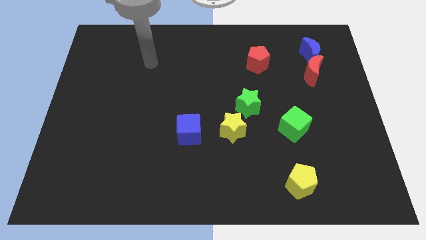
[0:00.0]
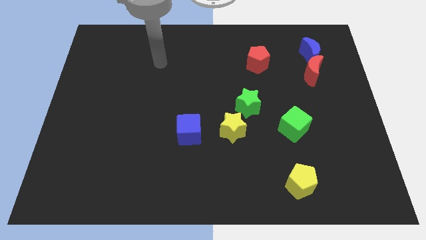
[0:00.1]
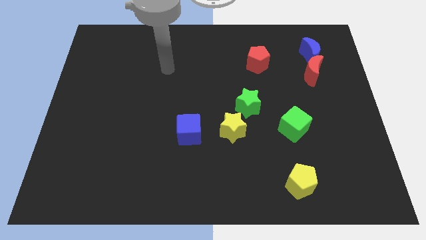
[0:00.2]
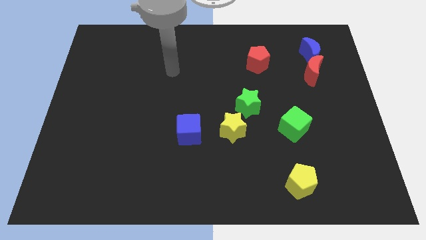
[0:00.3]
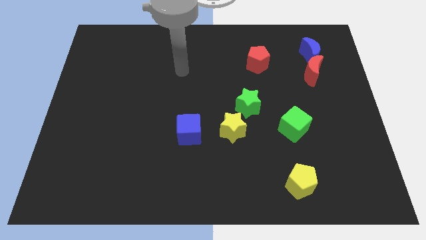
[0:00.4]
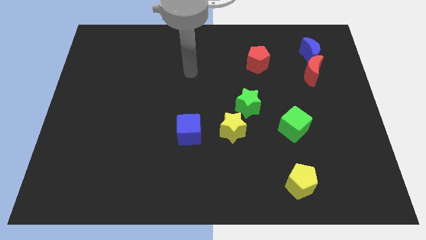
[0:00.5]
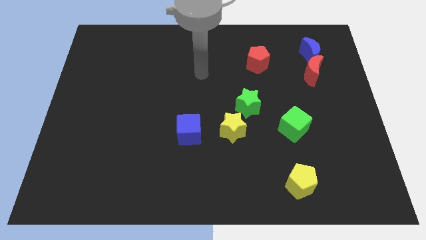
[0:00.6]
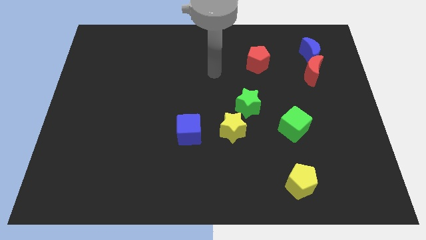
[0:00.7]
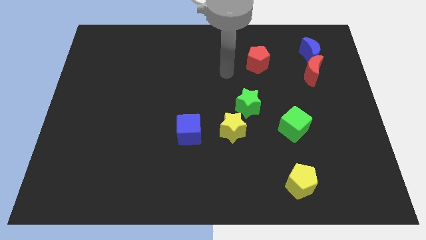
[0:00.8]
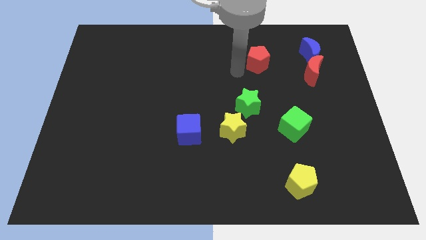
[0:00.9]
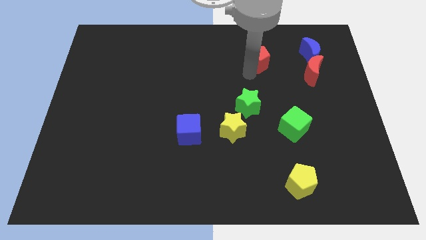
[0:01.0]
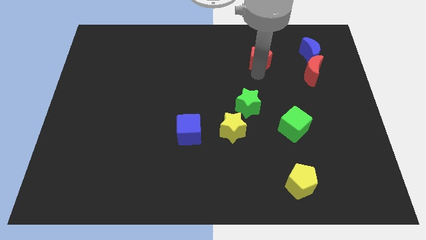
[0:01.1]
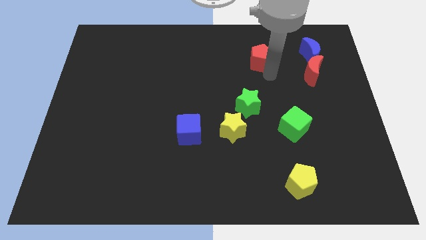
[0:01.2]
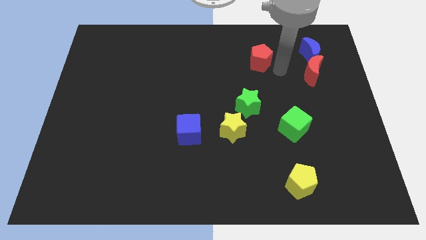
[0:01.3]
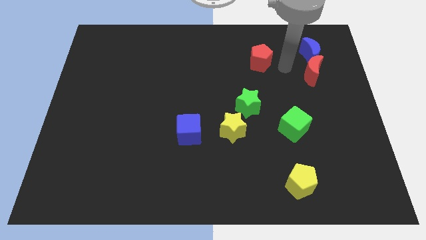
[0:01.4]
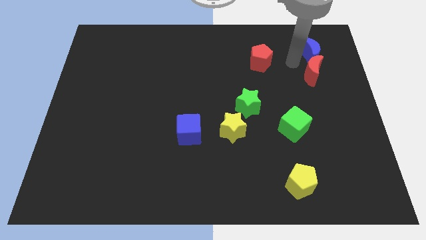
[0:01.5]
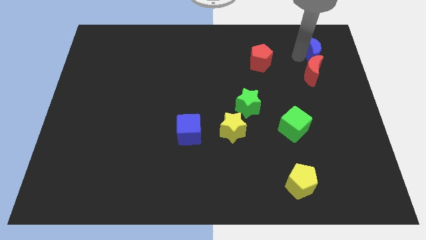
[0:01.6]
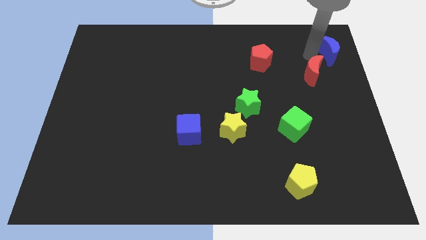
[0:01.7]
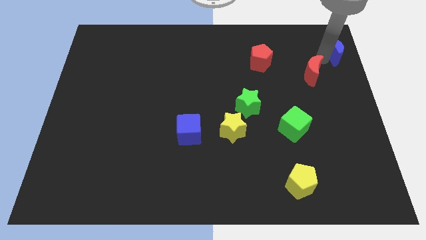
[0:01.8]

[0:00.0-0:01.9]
move the red moon away from the blue moon

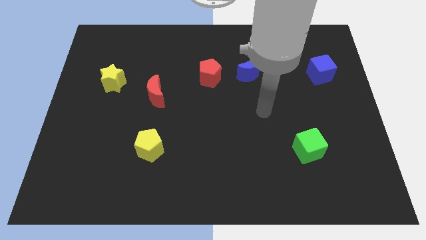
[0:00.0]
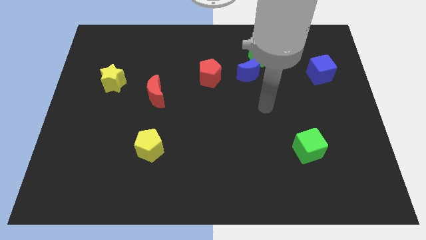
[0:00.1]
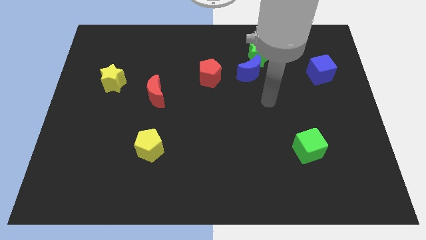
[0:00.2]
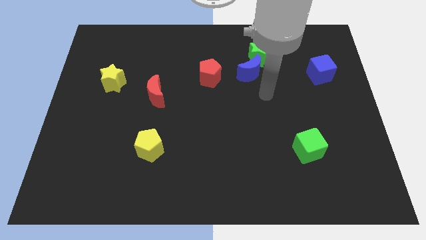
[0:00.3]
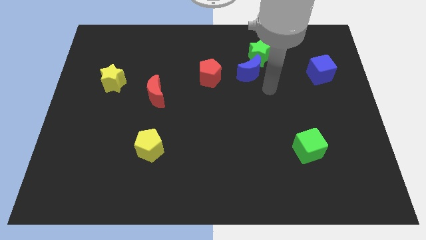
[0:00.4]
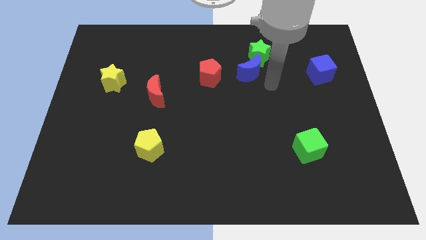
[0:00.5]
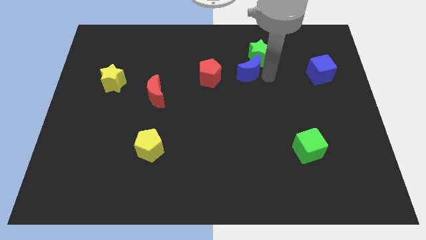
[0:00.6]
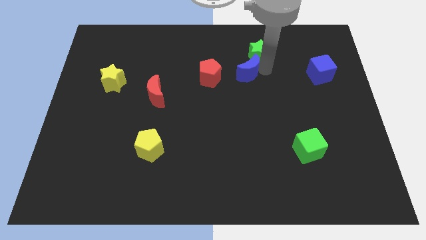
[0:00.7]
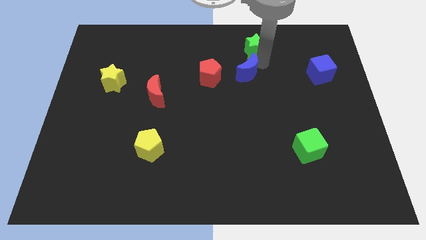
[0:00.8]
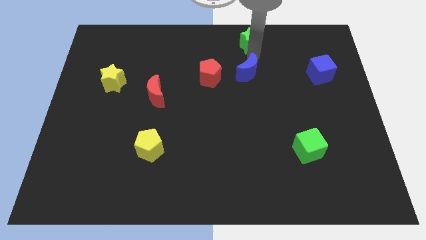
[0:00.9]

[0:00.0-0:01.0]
separate the blue moon from the green star

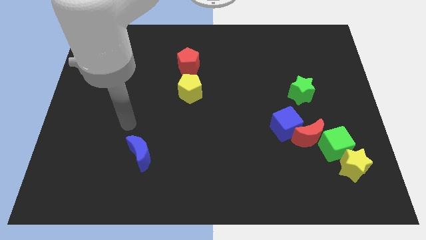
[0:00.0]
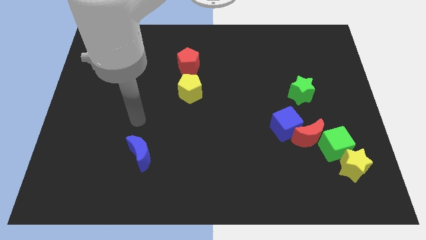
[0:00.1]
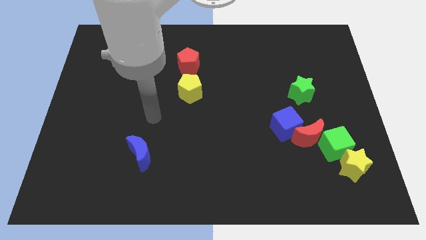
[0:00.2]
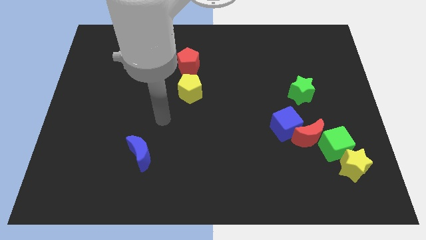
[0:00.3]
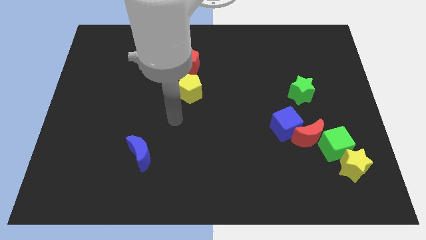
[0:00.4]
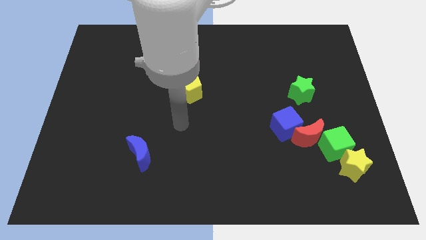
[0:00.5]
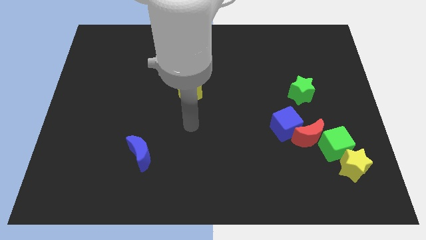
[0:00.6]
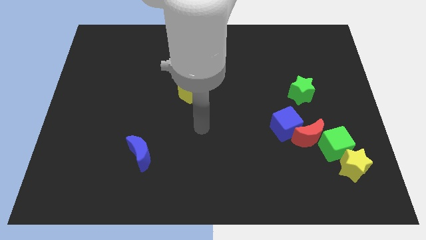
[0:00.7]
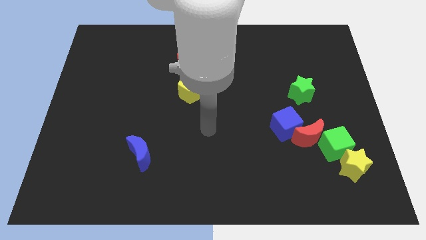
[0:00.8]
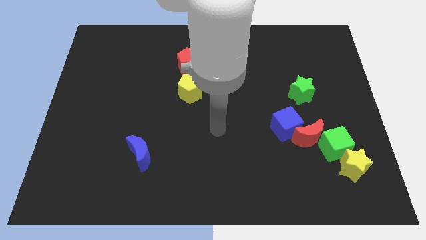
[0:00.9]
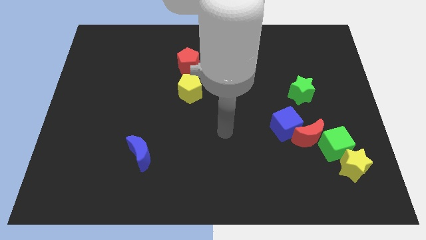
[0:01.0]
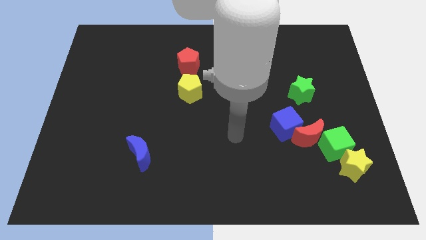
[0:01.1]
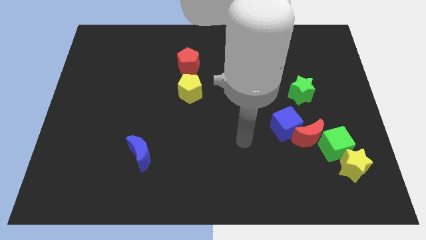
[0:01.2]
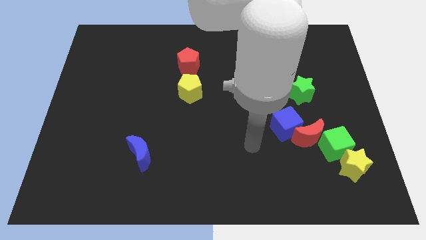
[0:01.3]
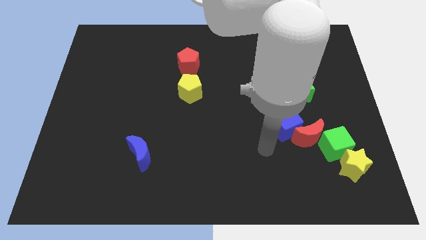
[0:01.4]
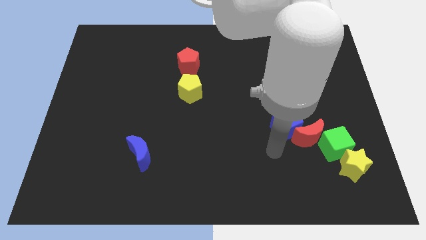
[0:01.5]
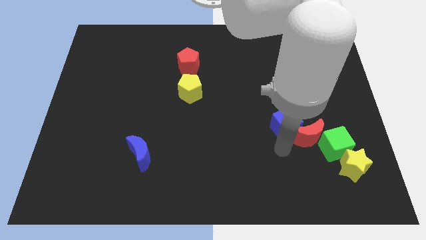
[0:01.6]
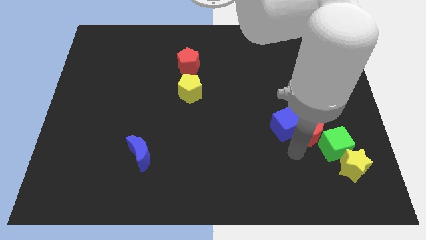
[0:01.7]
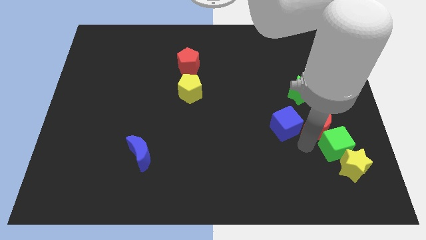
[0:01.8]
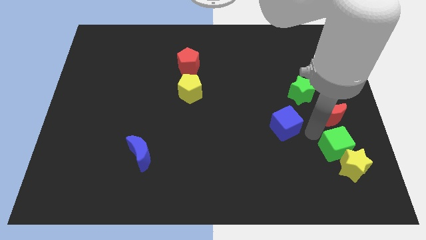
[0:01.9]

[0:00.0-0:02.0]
pull the blue cube apart from the red moon

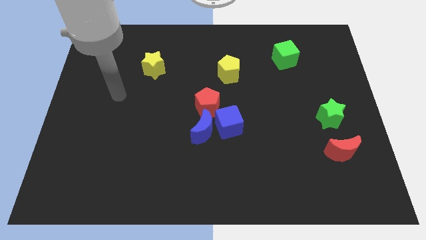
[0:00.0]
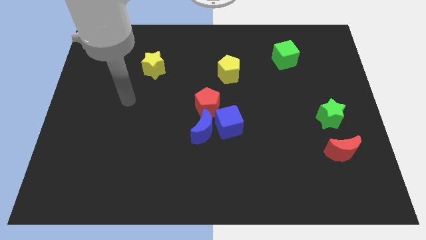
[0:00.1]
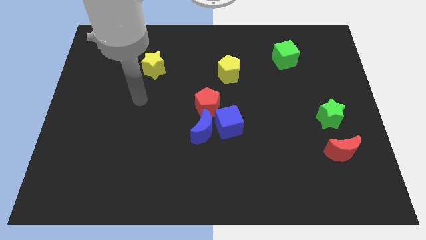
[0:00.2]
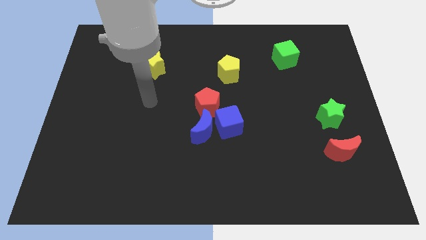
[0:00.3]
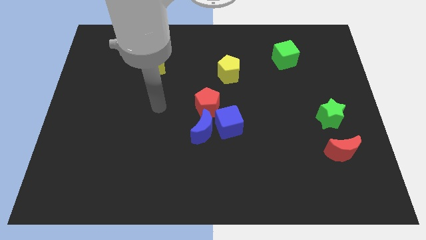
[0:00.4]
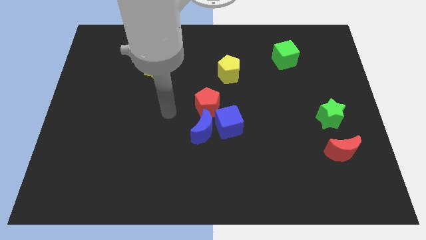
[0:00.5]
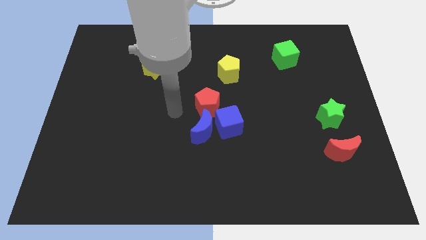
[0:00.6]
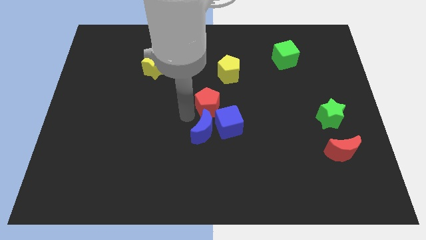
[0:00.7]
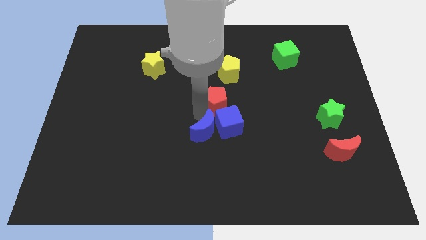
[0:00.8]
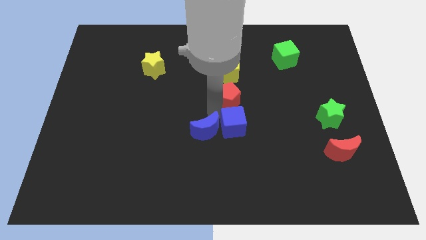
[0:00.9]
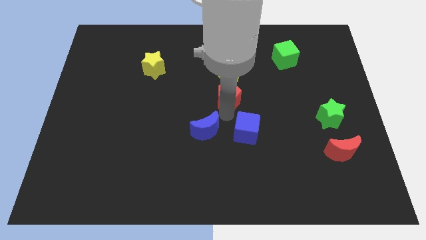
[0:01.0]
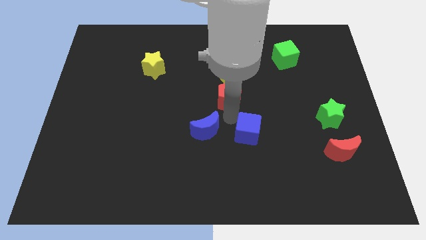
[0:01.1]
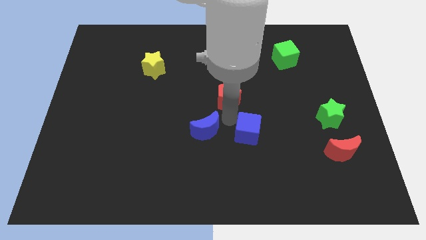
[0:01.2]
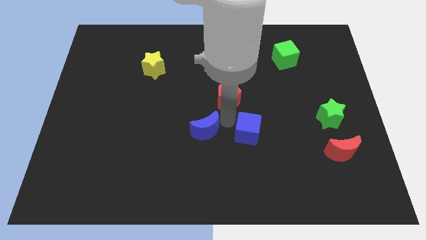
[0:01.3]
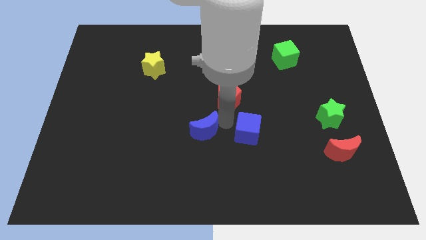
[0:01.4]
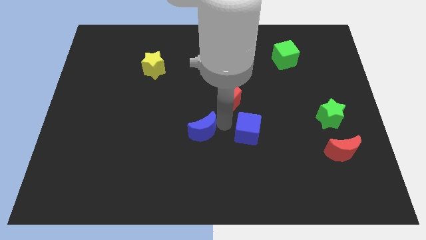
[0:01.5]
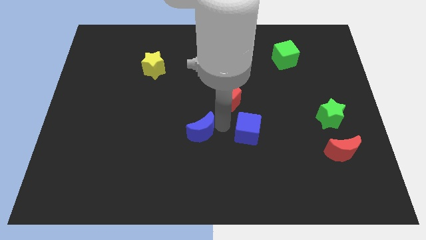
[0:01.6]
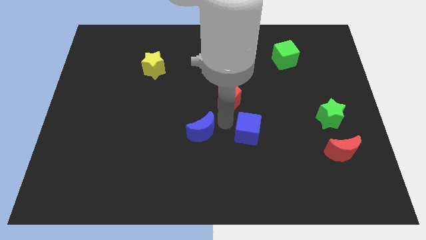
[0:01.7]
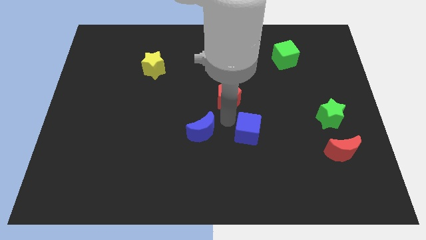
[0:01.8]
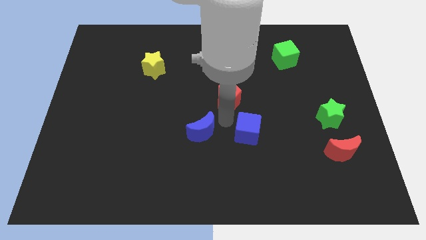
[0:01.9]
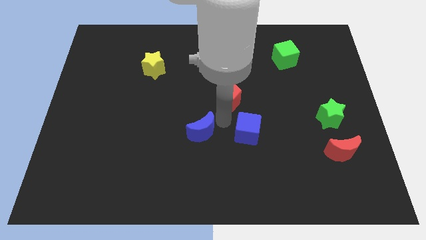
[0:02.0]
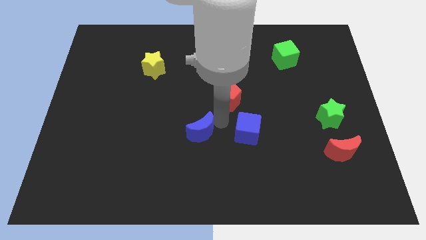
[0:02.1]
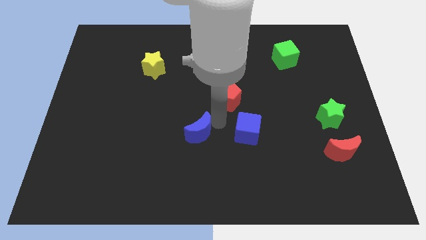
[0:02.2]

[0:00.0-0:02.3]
move the blue moon away from the blue cube and red pentagon

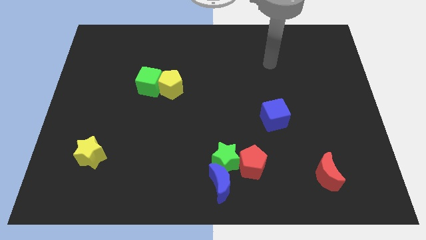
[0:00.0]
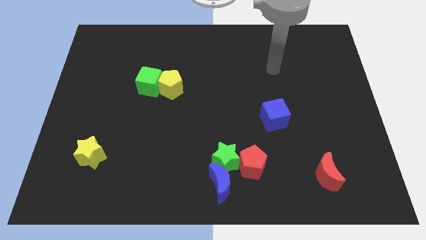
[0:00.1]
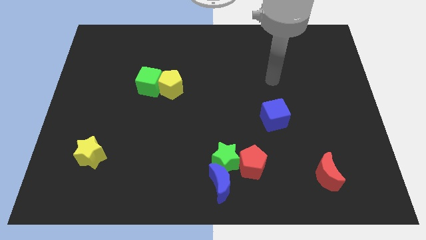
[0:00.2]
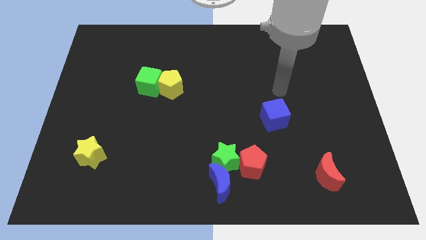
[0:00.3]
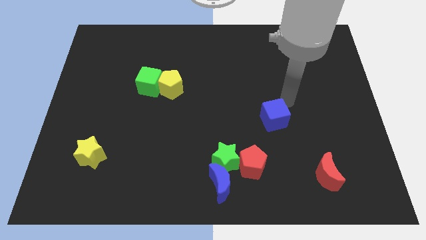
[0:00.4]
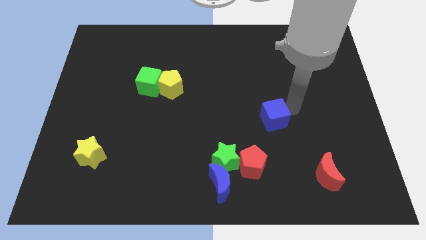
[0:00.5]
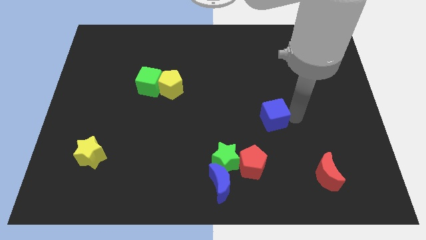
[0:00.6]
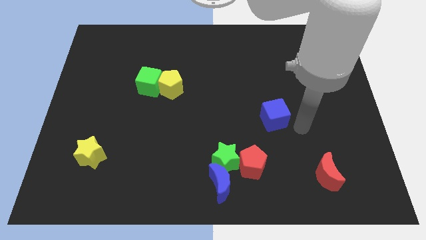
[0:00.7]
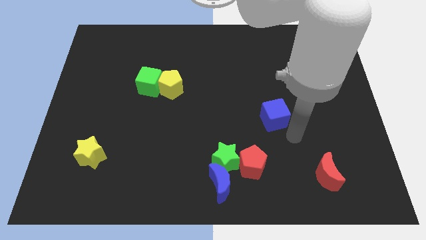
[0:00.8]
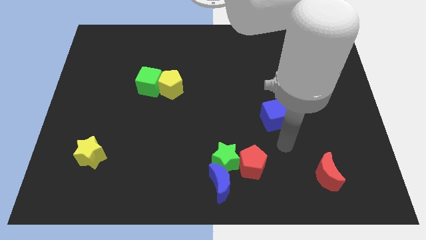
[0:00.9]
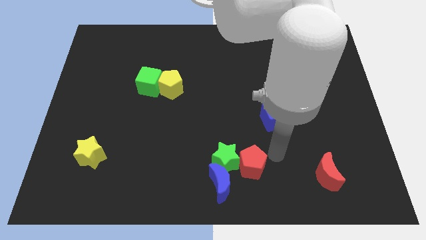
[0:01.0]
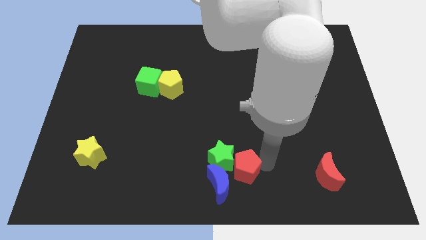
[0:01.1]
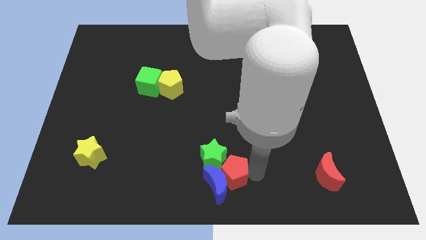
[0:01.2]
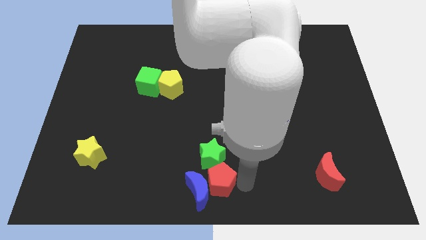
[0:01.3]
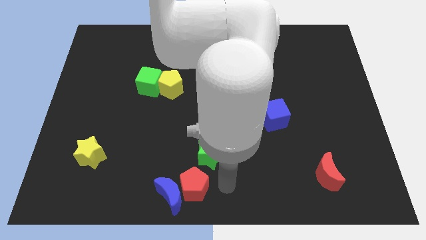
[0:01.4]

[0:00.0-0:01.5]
move the green star away from the red pentagon and blue moon

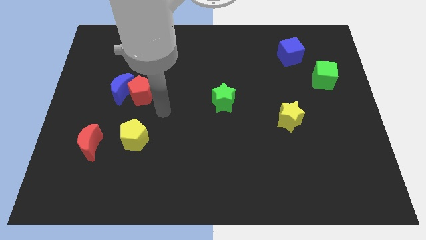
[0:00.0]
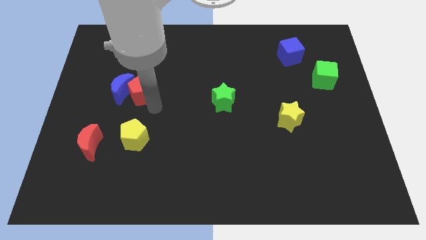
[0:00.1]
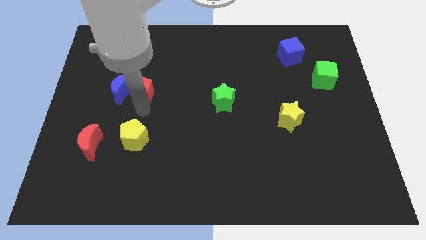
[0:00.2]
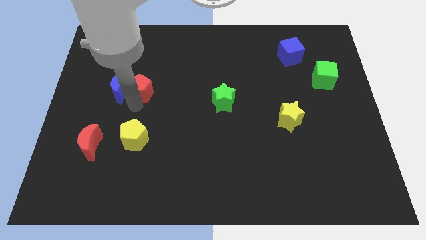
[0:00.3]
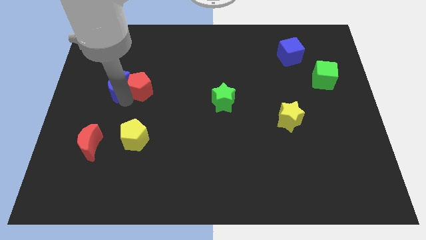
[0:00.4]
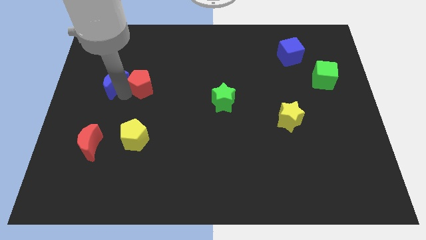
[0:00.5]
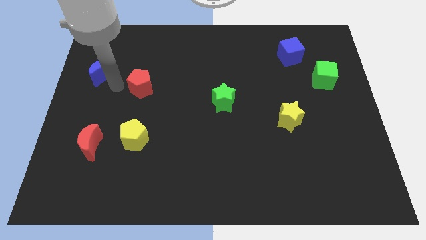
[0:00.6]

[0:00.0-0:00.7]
pull the red pentagon apart from the blue moon

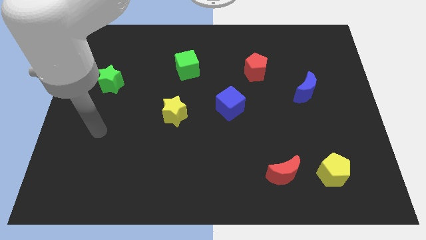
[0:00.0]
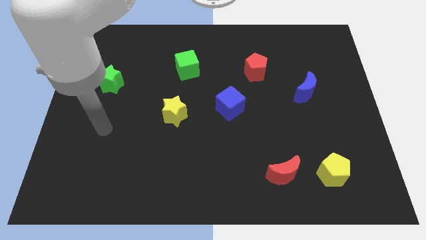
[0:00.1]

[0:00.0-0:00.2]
pull the red moon apart from the yellow pentagon
